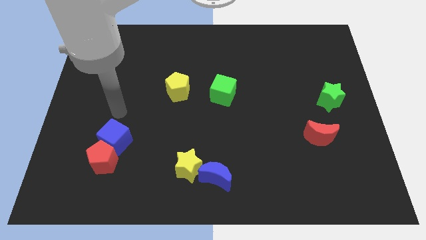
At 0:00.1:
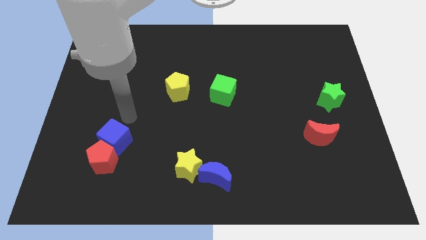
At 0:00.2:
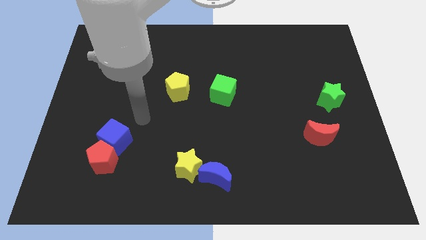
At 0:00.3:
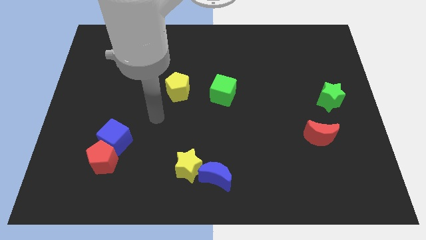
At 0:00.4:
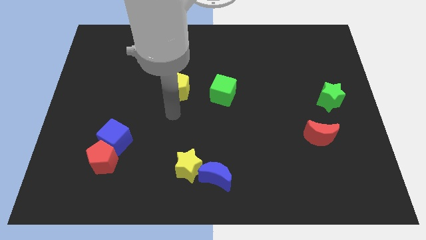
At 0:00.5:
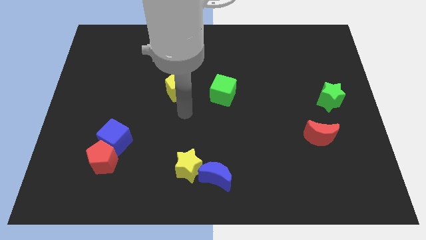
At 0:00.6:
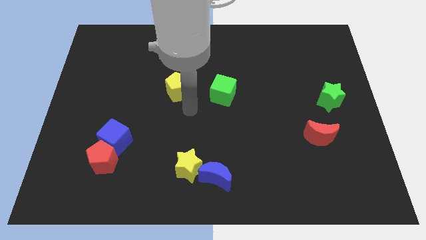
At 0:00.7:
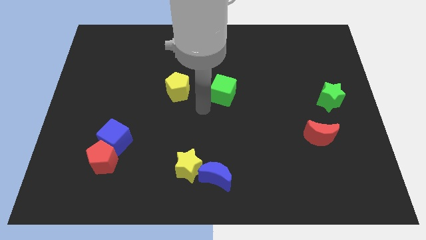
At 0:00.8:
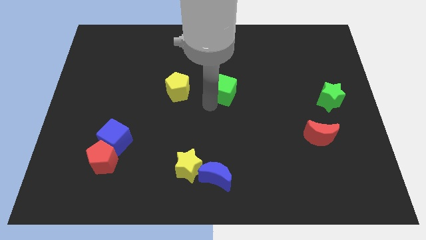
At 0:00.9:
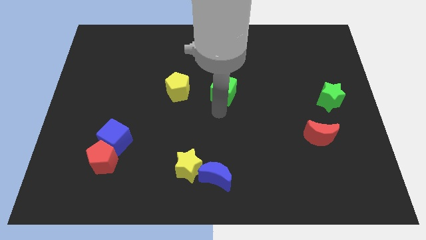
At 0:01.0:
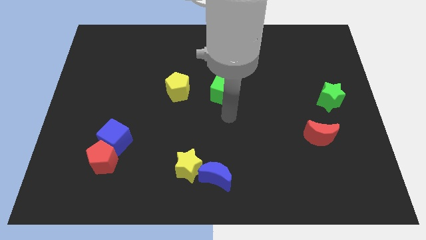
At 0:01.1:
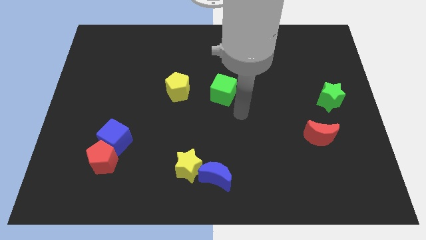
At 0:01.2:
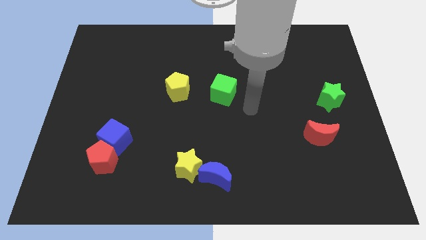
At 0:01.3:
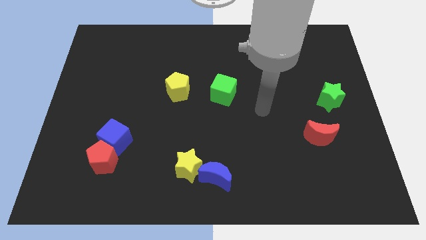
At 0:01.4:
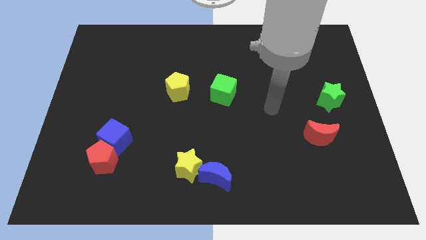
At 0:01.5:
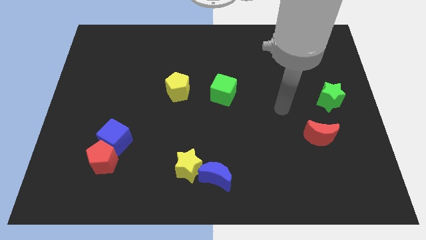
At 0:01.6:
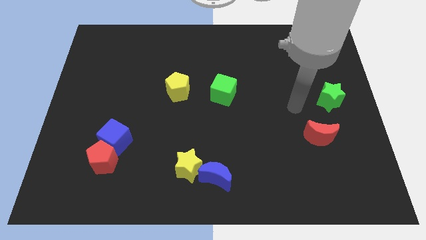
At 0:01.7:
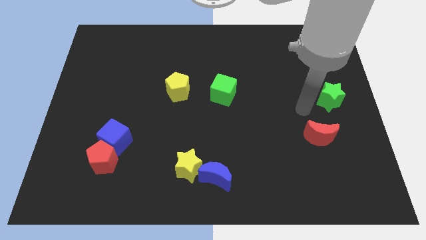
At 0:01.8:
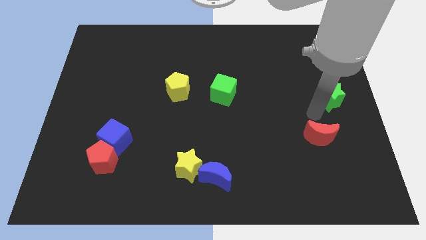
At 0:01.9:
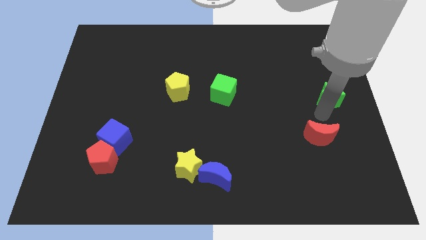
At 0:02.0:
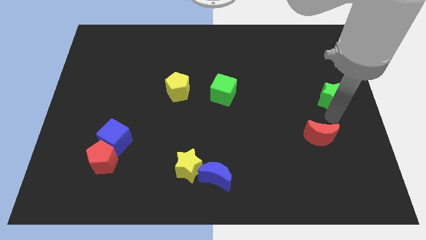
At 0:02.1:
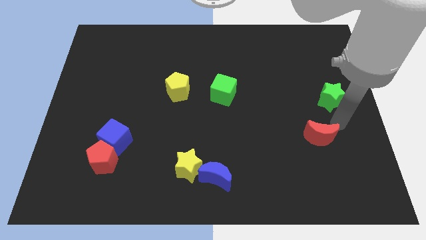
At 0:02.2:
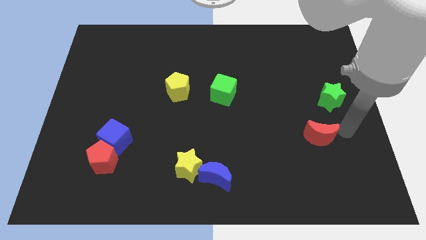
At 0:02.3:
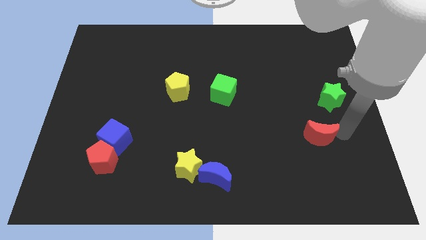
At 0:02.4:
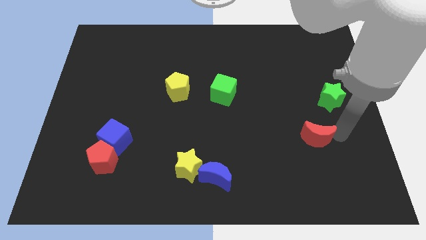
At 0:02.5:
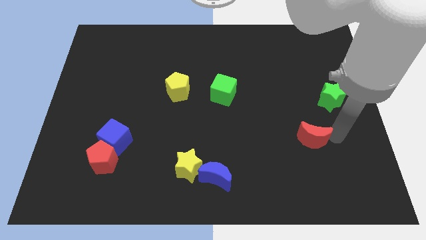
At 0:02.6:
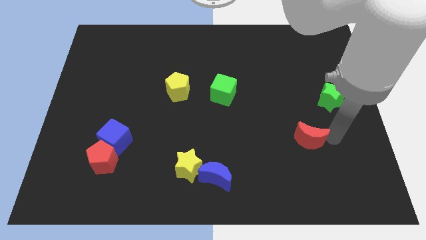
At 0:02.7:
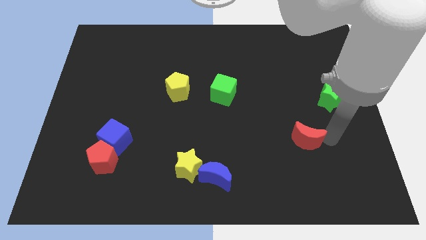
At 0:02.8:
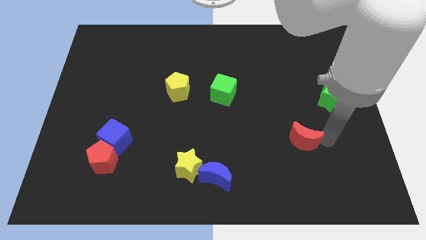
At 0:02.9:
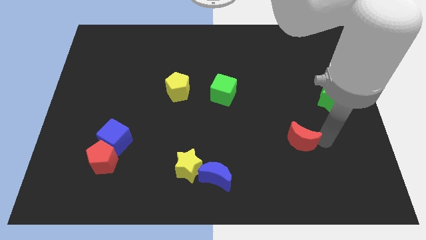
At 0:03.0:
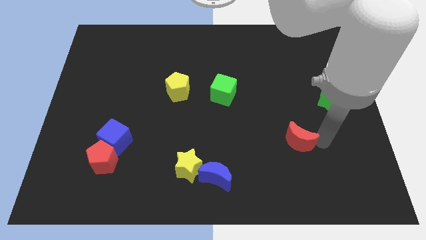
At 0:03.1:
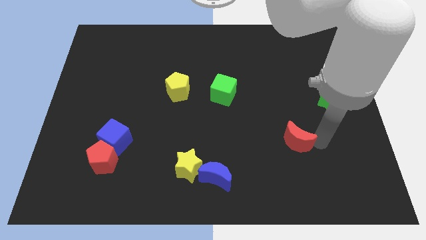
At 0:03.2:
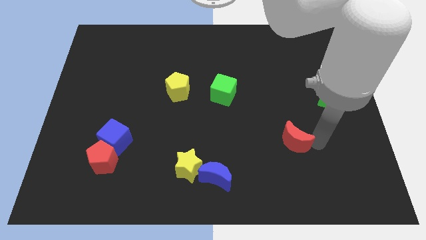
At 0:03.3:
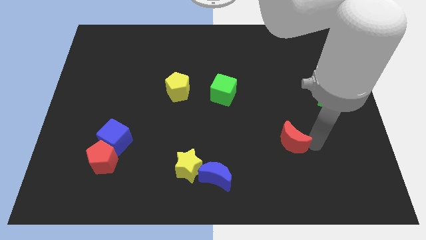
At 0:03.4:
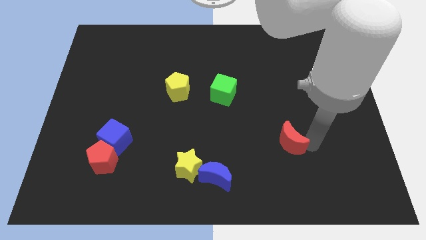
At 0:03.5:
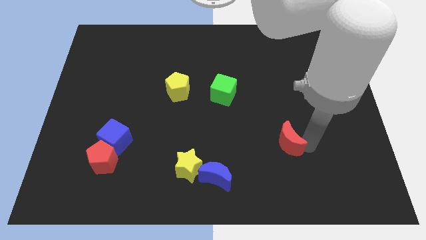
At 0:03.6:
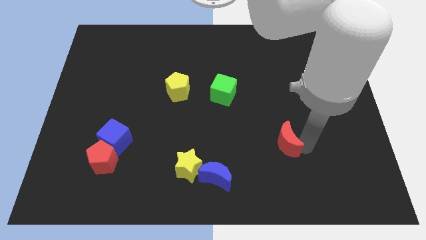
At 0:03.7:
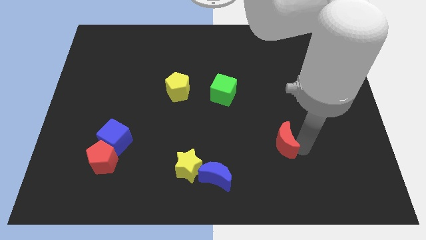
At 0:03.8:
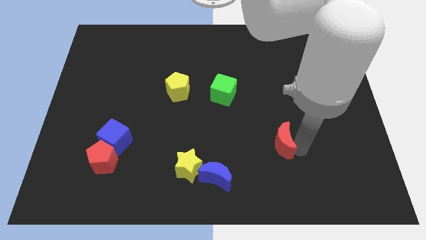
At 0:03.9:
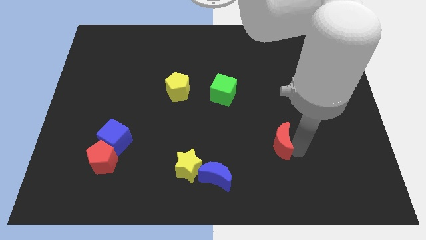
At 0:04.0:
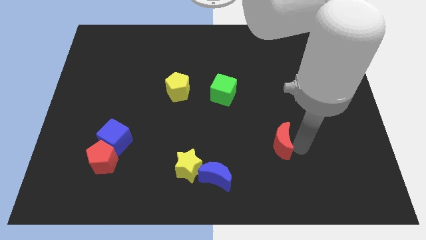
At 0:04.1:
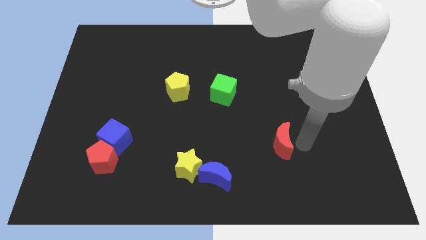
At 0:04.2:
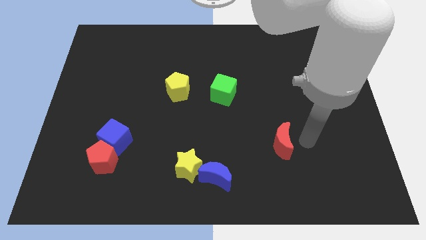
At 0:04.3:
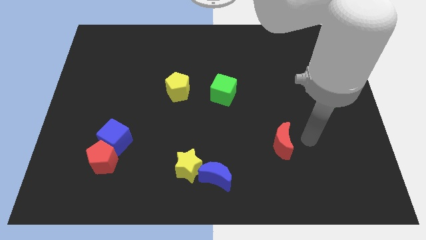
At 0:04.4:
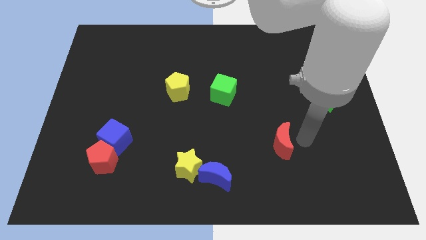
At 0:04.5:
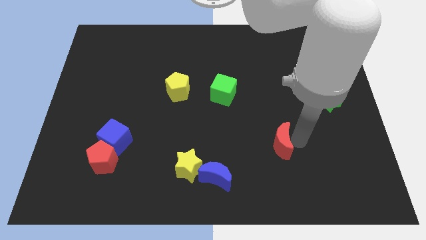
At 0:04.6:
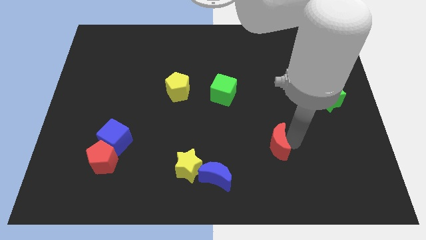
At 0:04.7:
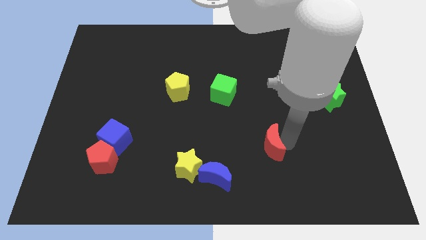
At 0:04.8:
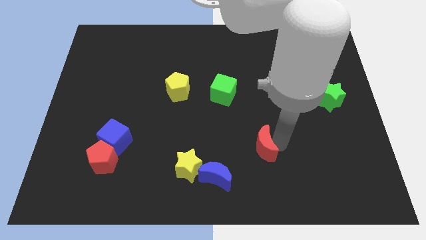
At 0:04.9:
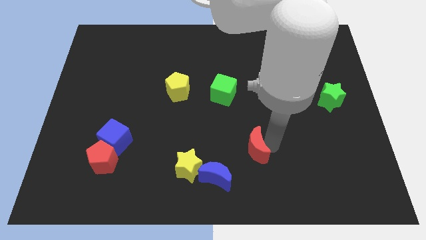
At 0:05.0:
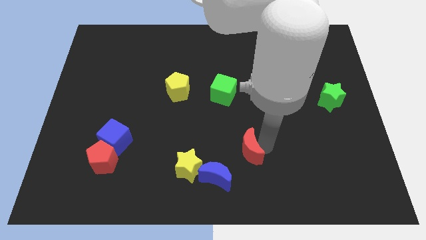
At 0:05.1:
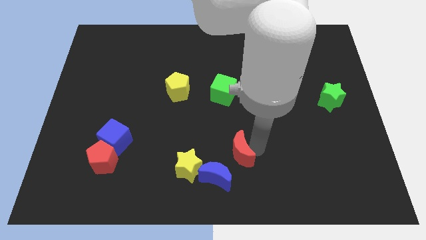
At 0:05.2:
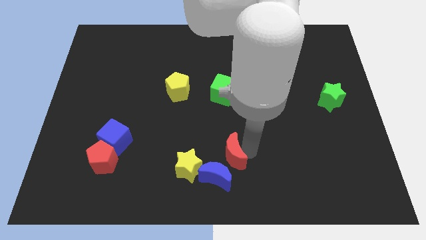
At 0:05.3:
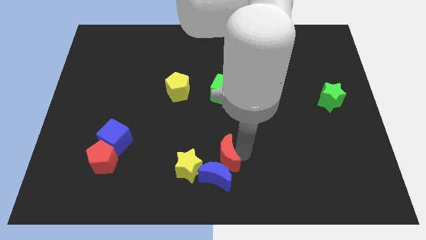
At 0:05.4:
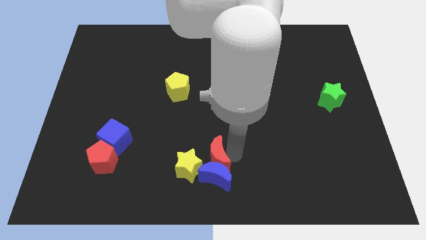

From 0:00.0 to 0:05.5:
slide the red moon close to the yellow star

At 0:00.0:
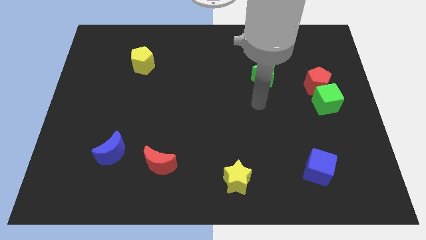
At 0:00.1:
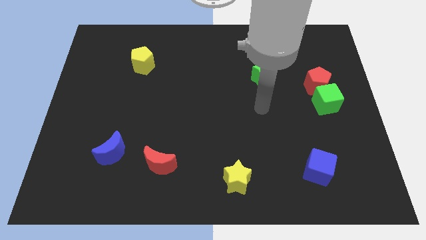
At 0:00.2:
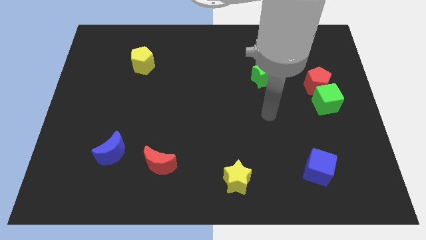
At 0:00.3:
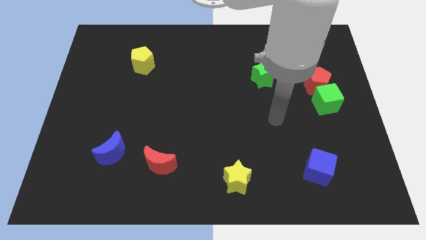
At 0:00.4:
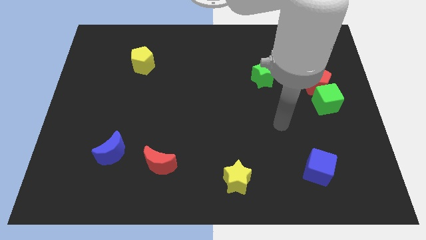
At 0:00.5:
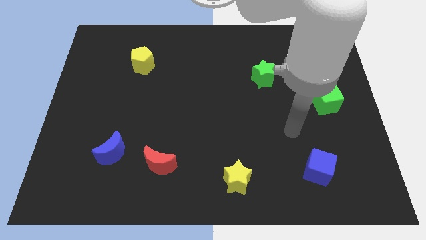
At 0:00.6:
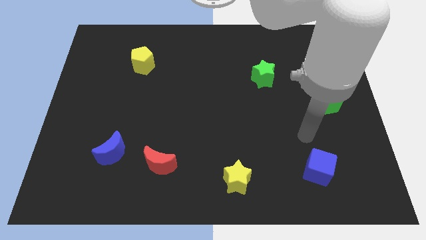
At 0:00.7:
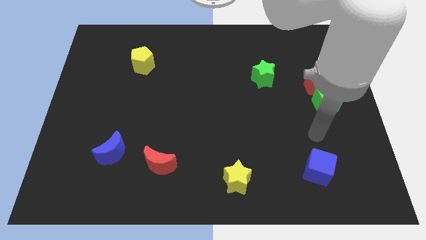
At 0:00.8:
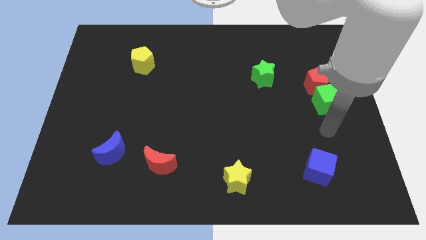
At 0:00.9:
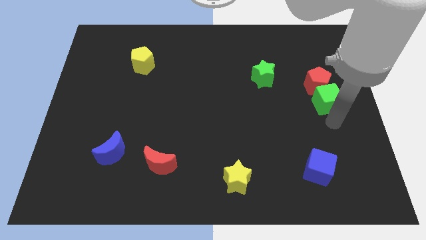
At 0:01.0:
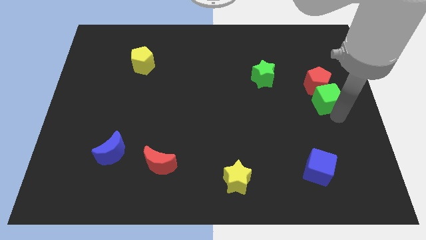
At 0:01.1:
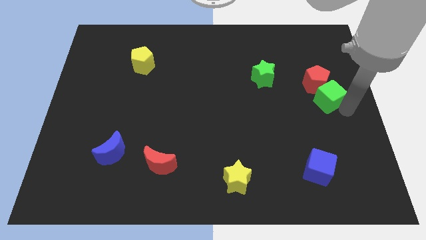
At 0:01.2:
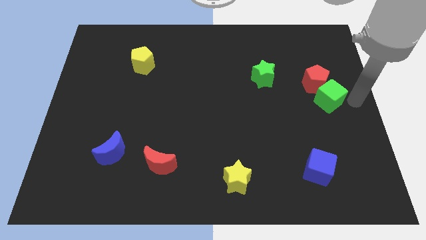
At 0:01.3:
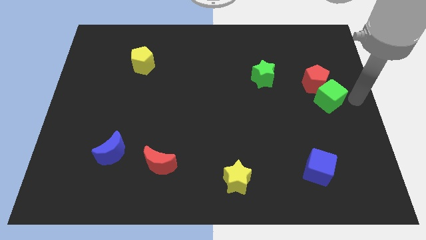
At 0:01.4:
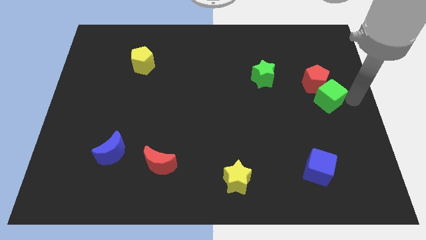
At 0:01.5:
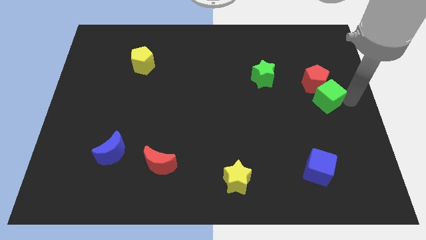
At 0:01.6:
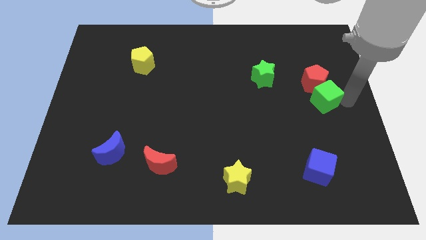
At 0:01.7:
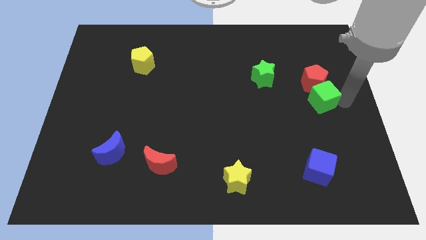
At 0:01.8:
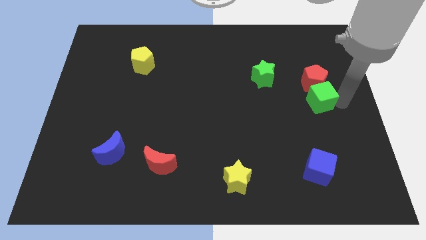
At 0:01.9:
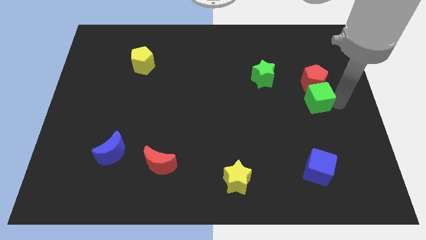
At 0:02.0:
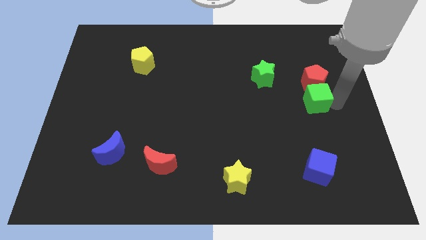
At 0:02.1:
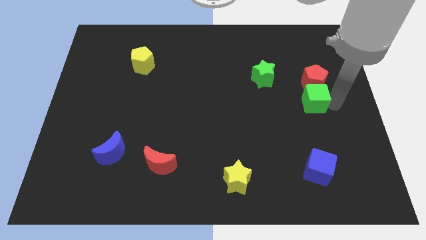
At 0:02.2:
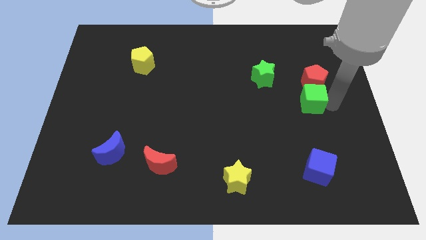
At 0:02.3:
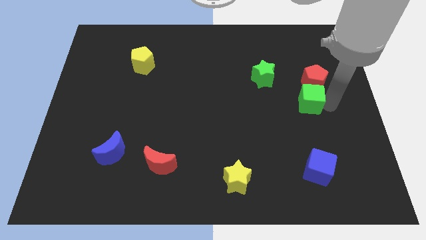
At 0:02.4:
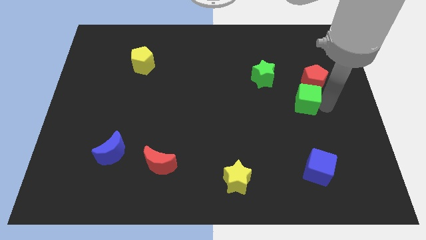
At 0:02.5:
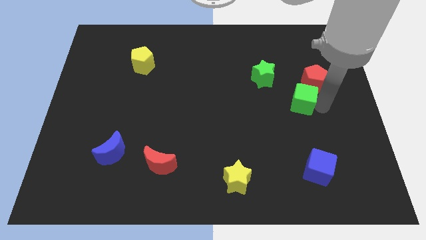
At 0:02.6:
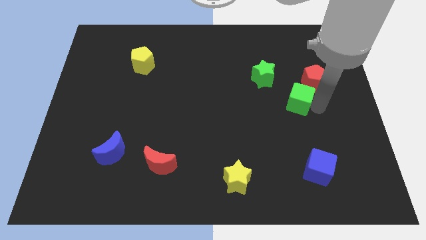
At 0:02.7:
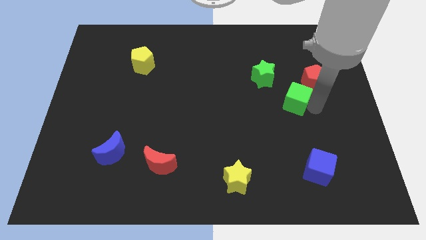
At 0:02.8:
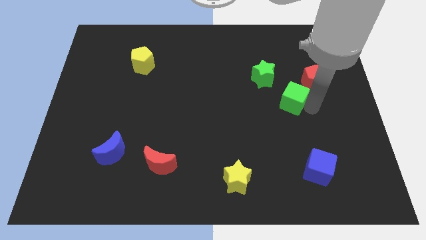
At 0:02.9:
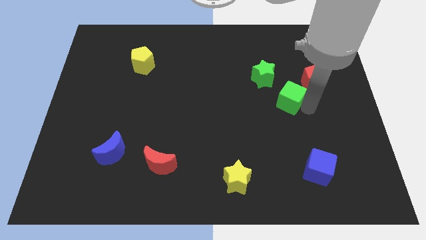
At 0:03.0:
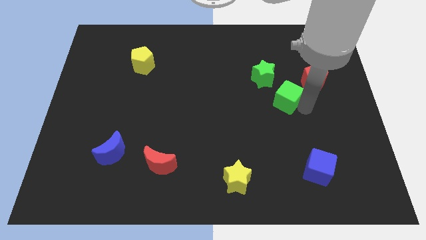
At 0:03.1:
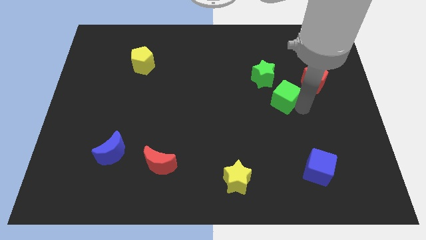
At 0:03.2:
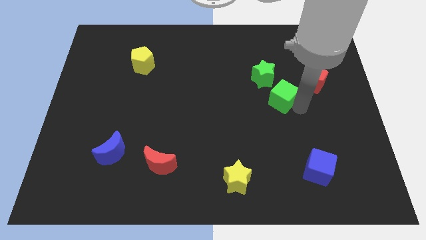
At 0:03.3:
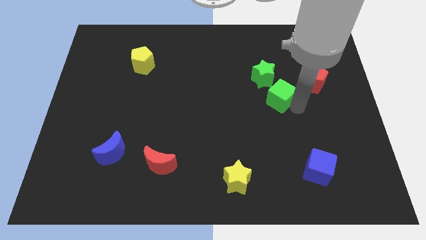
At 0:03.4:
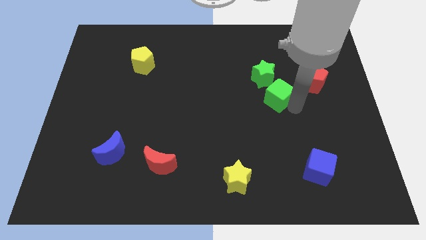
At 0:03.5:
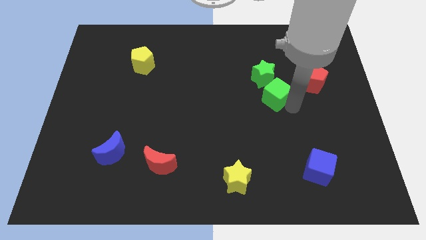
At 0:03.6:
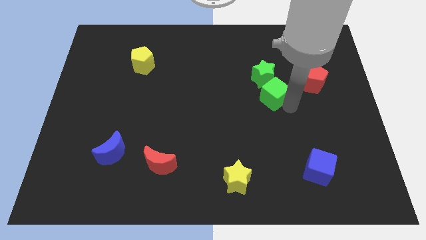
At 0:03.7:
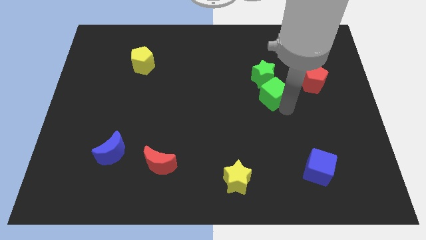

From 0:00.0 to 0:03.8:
push the green cube towards the green star
